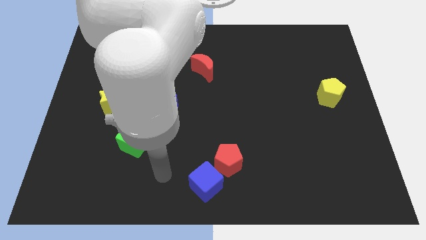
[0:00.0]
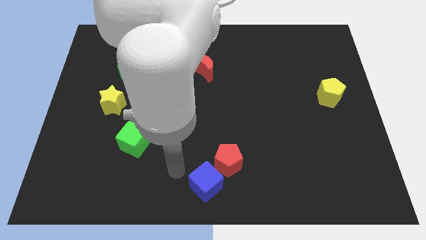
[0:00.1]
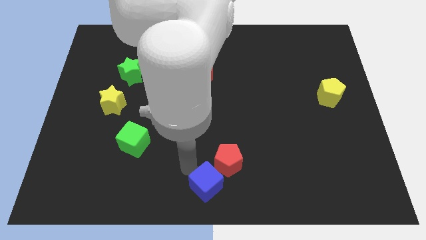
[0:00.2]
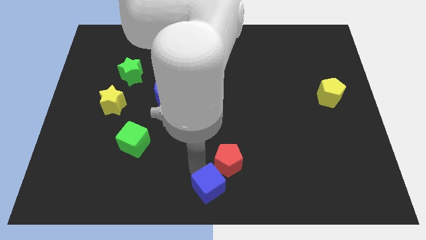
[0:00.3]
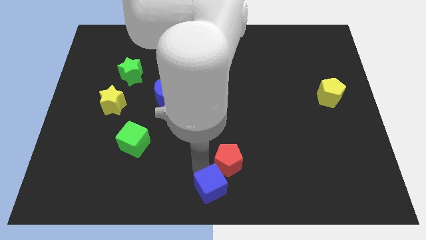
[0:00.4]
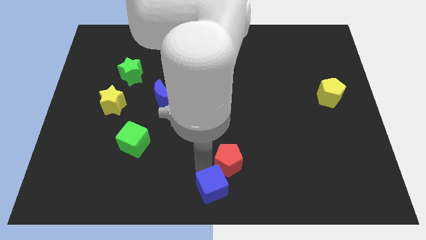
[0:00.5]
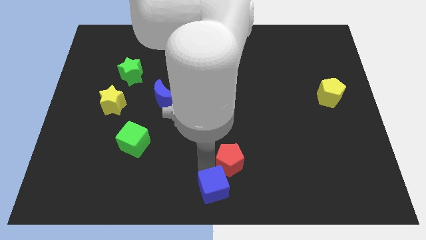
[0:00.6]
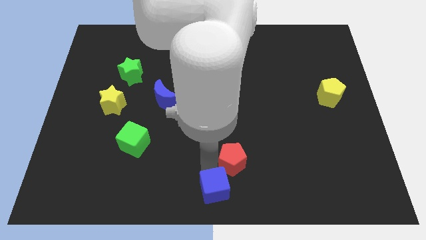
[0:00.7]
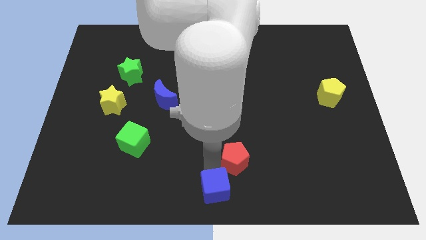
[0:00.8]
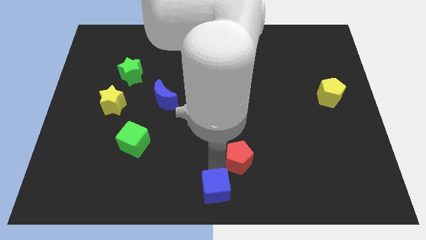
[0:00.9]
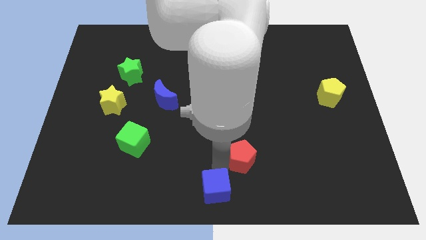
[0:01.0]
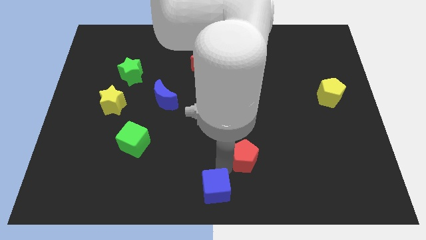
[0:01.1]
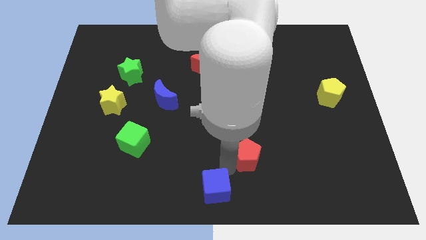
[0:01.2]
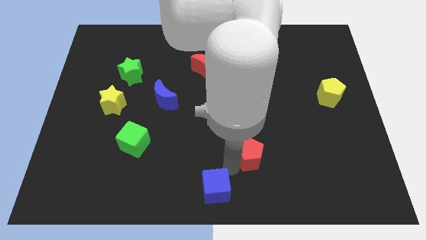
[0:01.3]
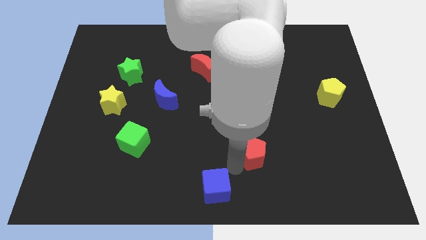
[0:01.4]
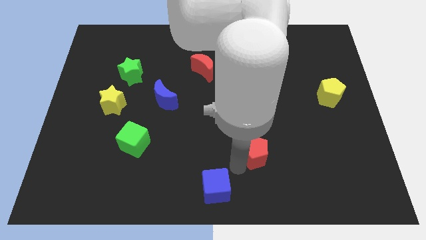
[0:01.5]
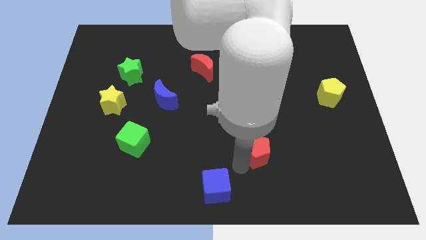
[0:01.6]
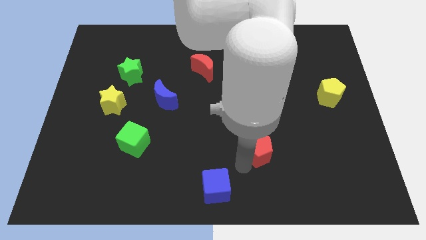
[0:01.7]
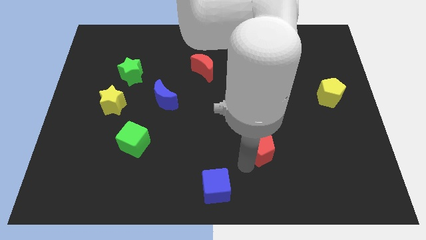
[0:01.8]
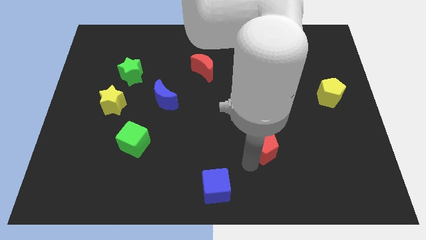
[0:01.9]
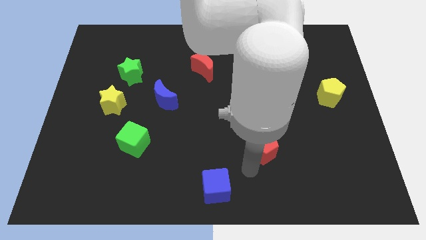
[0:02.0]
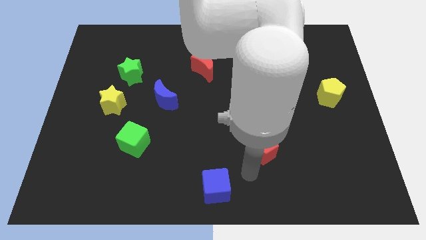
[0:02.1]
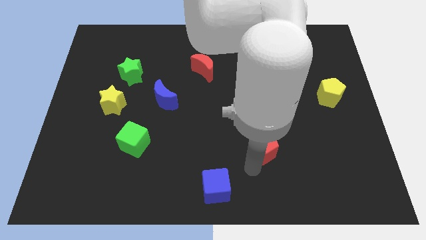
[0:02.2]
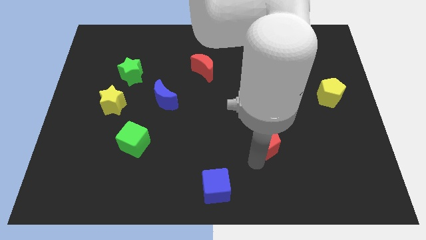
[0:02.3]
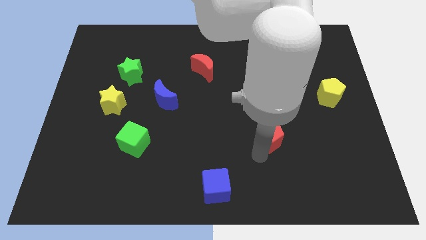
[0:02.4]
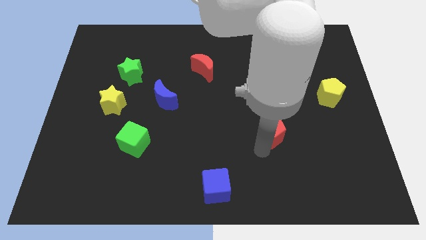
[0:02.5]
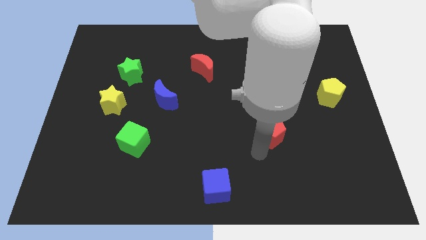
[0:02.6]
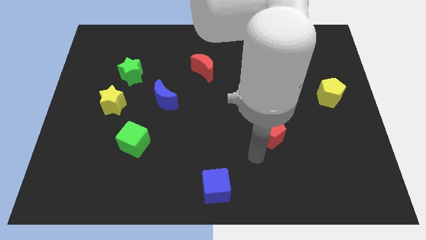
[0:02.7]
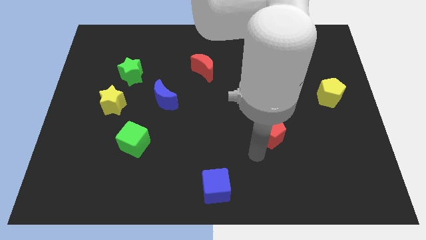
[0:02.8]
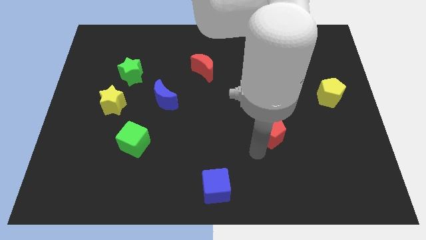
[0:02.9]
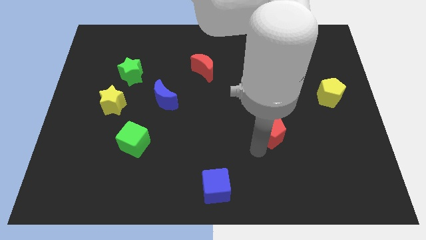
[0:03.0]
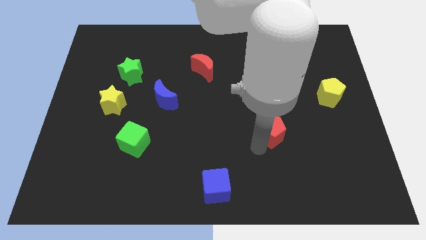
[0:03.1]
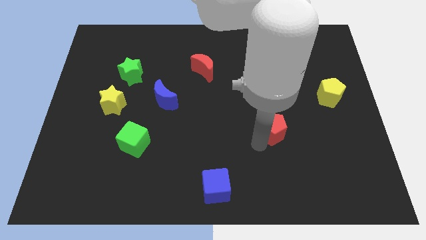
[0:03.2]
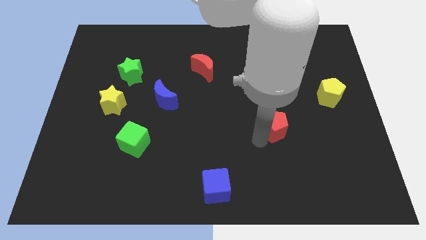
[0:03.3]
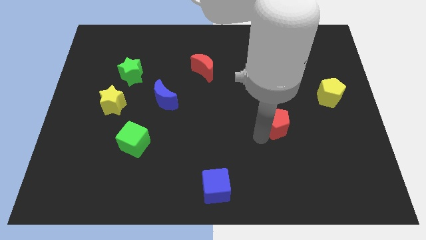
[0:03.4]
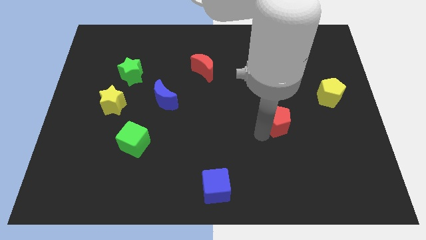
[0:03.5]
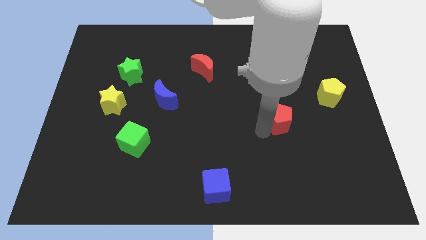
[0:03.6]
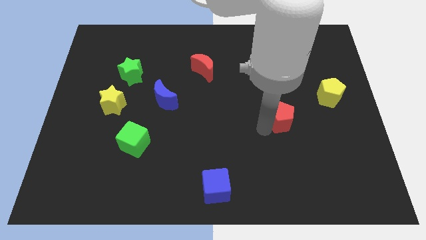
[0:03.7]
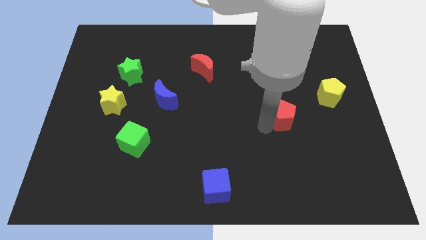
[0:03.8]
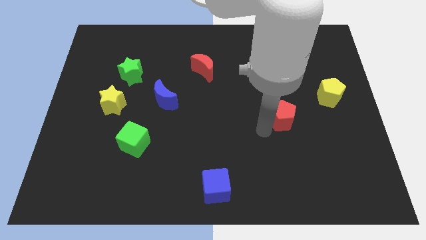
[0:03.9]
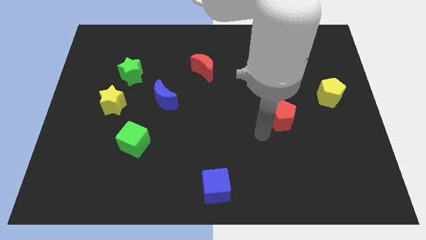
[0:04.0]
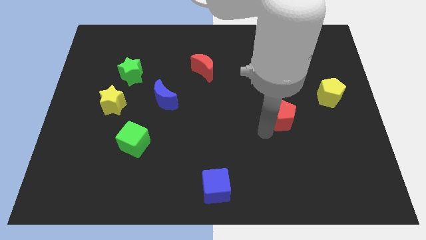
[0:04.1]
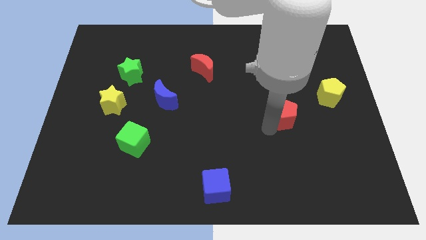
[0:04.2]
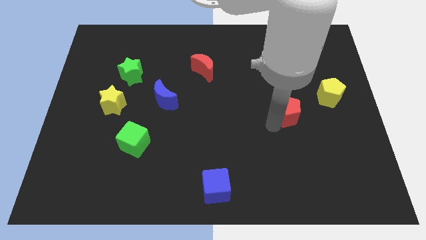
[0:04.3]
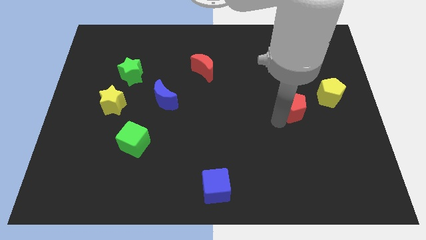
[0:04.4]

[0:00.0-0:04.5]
move the red pentagon up and to the right diagonally

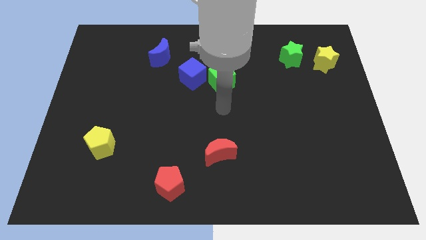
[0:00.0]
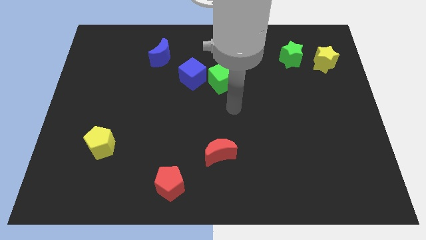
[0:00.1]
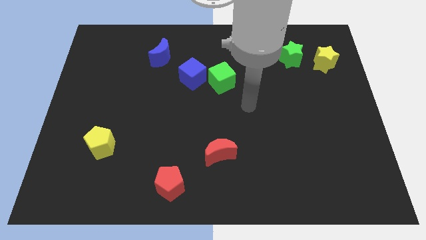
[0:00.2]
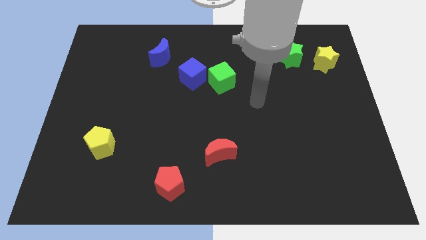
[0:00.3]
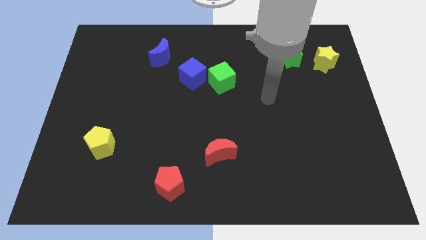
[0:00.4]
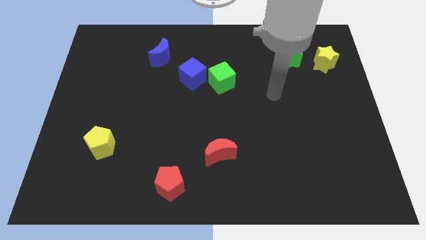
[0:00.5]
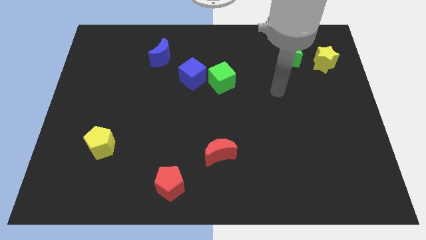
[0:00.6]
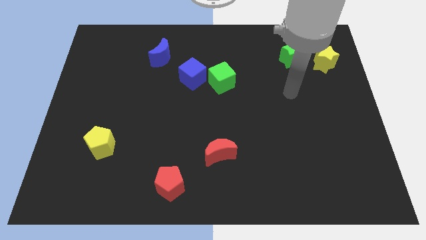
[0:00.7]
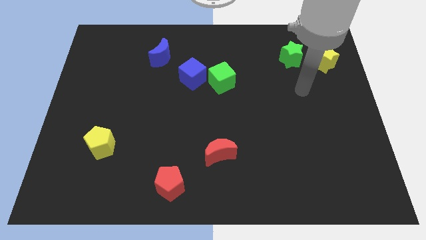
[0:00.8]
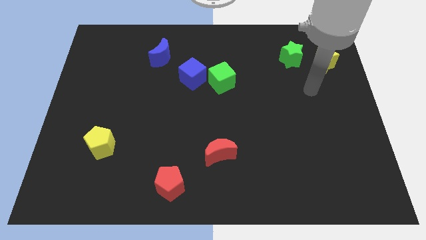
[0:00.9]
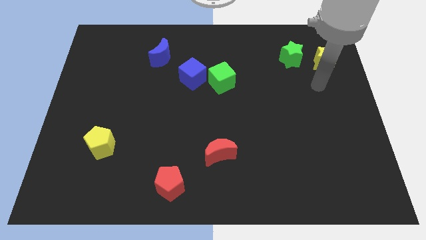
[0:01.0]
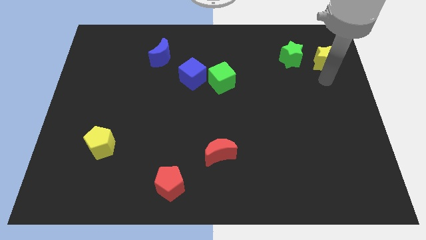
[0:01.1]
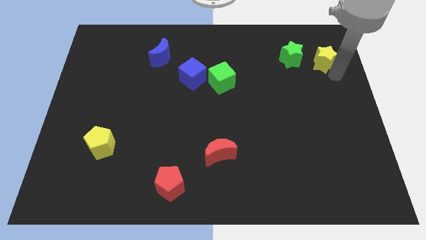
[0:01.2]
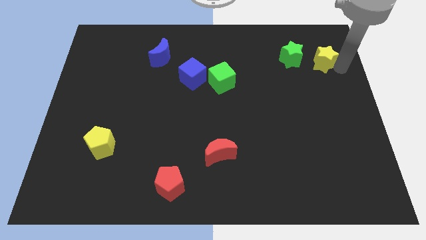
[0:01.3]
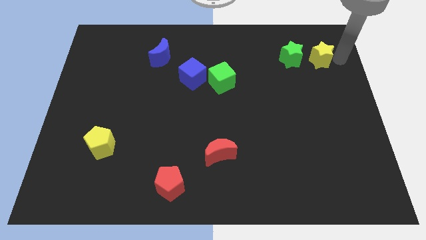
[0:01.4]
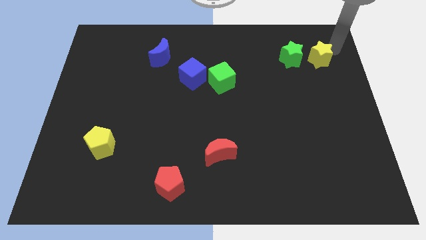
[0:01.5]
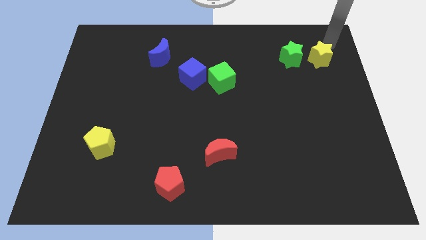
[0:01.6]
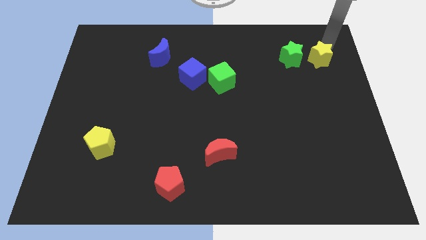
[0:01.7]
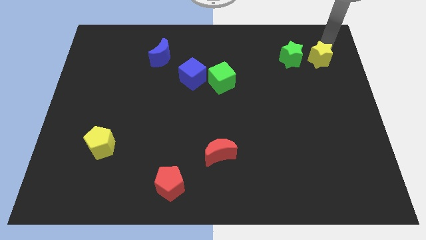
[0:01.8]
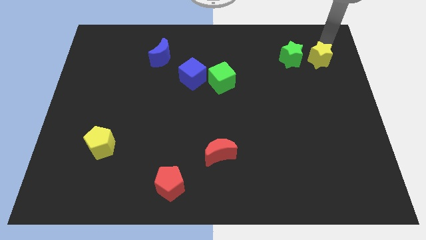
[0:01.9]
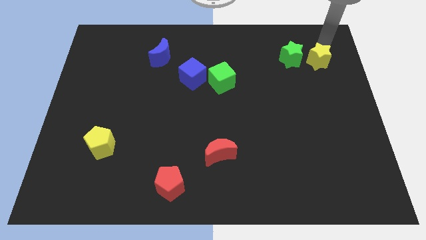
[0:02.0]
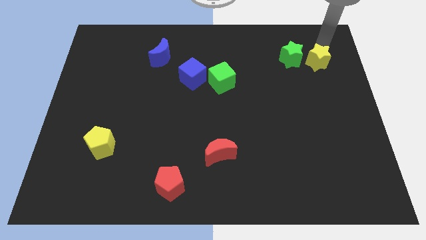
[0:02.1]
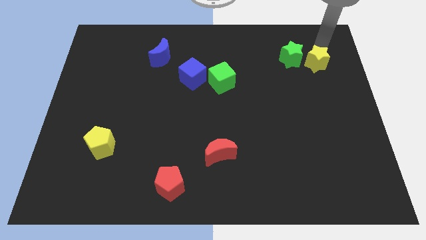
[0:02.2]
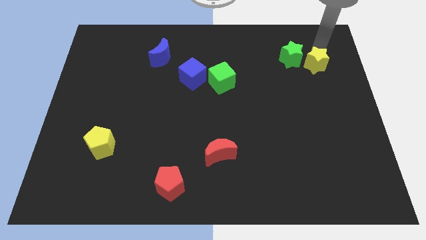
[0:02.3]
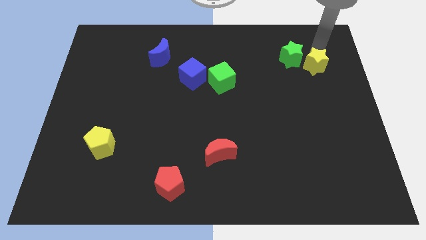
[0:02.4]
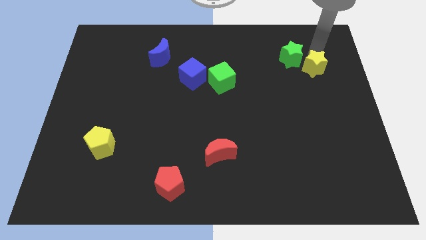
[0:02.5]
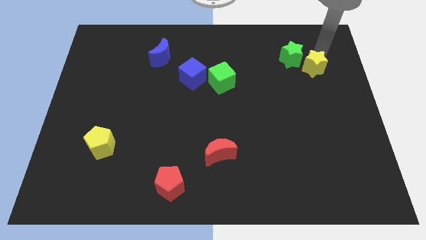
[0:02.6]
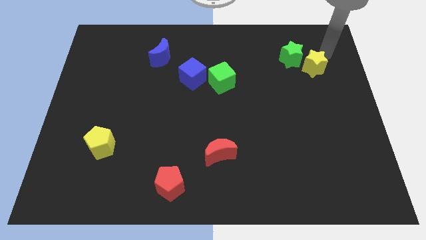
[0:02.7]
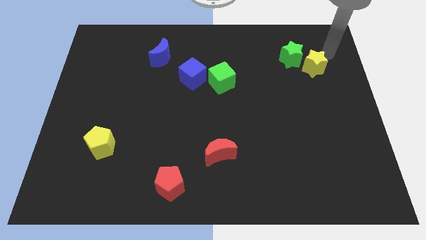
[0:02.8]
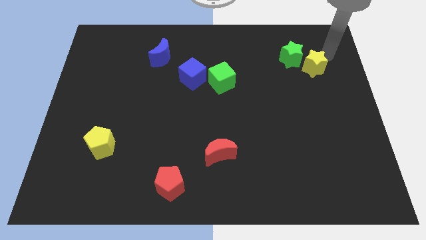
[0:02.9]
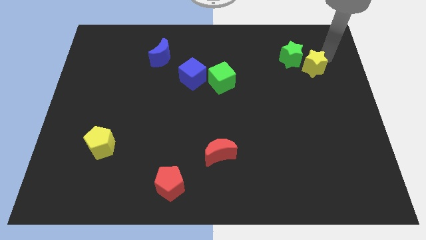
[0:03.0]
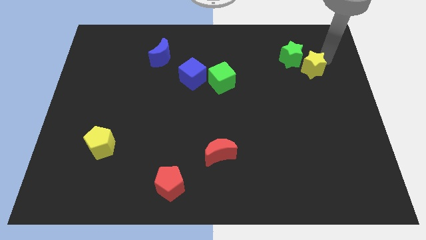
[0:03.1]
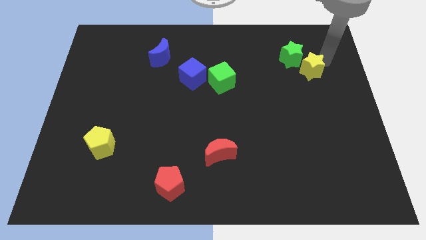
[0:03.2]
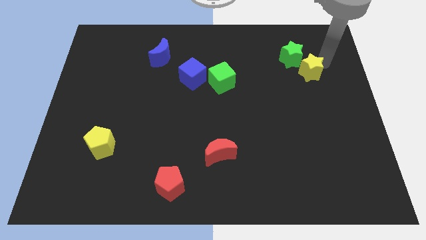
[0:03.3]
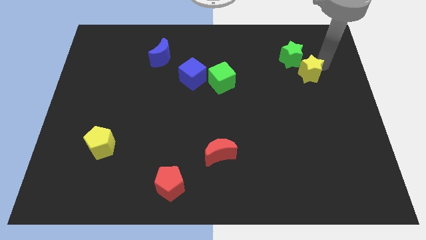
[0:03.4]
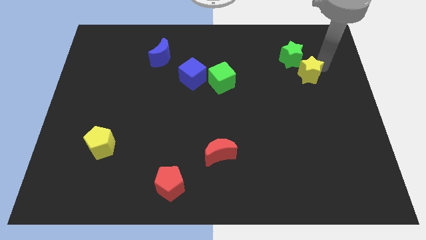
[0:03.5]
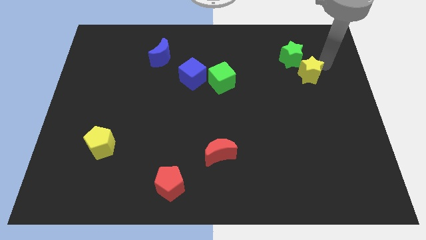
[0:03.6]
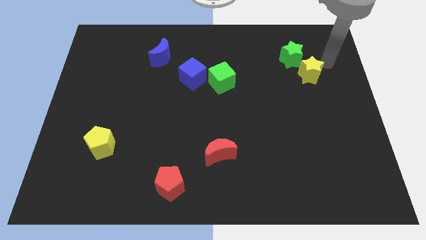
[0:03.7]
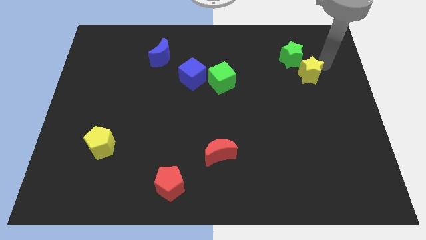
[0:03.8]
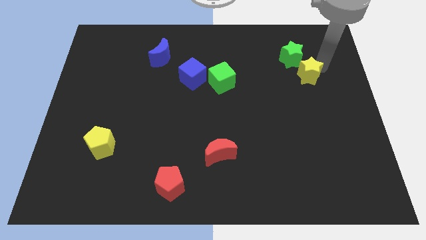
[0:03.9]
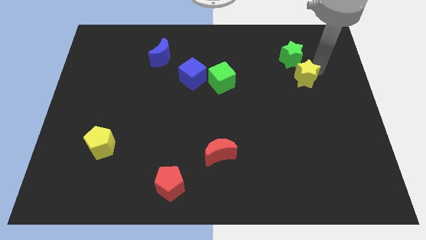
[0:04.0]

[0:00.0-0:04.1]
slide the yellow star somewhat downwards and to the left
